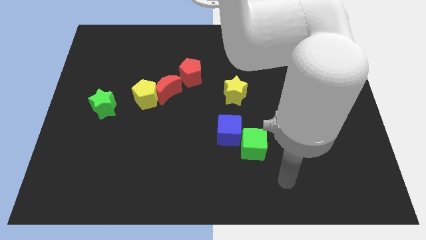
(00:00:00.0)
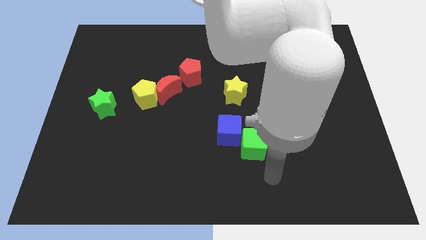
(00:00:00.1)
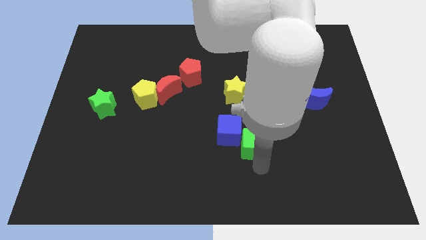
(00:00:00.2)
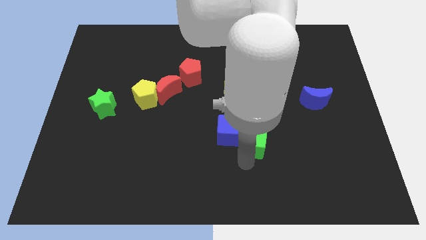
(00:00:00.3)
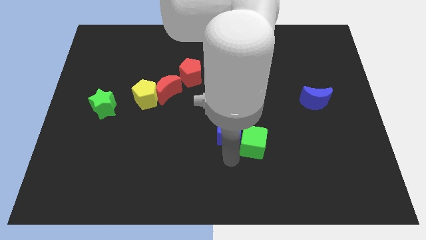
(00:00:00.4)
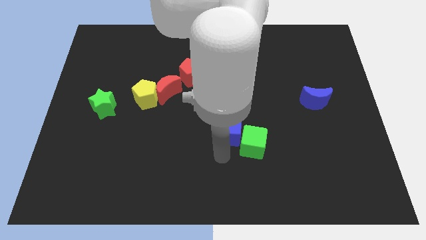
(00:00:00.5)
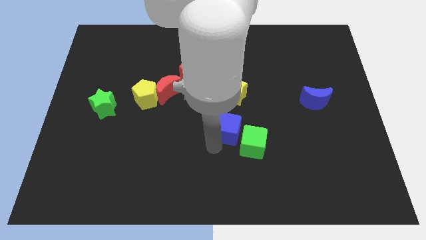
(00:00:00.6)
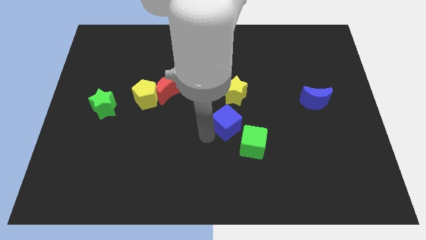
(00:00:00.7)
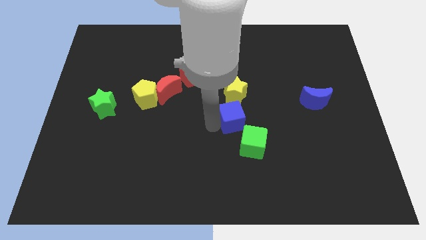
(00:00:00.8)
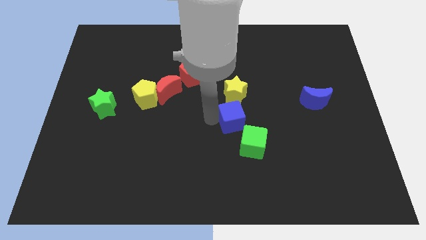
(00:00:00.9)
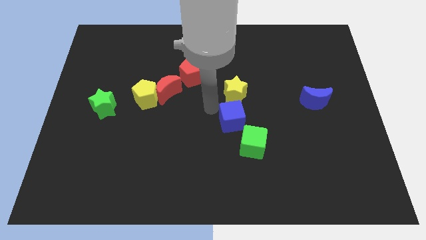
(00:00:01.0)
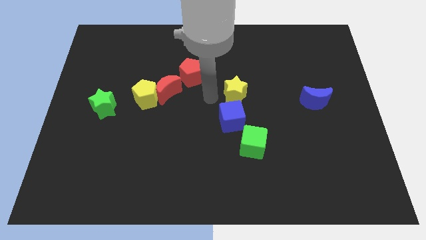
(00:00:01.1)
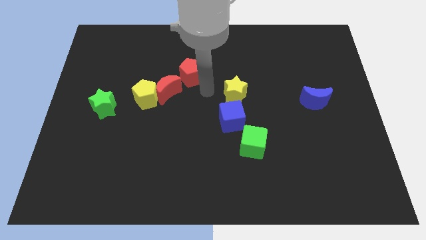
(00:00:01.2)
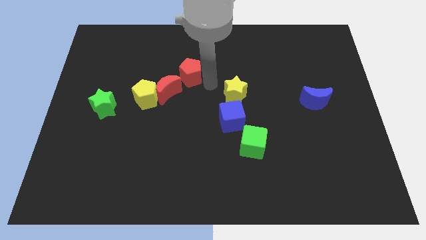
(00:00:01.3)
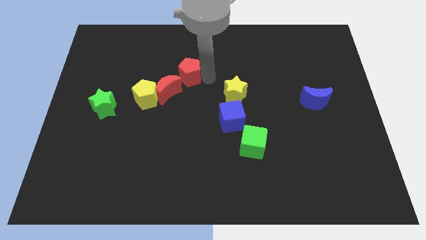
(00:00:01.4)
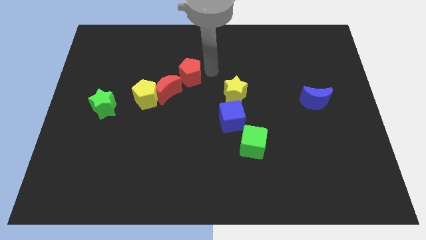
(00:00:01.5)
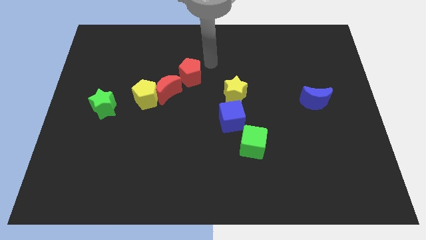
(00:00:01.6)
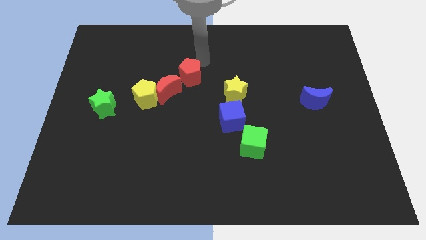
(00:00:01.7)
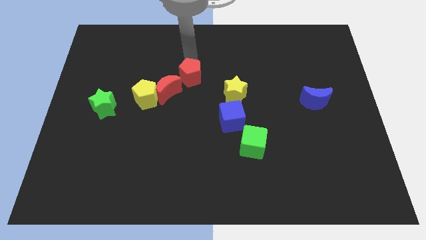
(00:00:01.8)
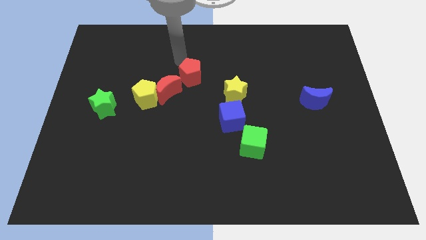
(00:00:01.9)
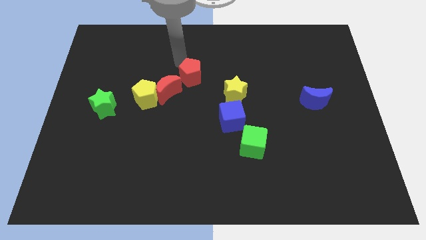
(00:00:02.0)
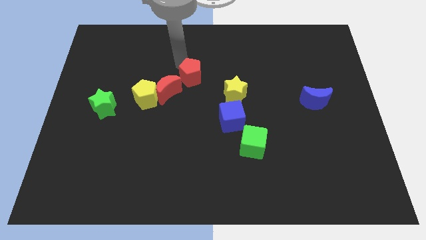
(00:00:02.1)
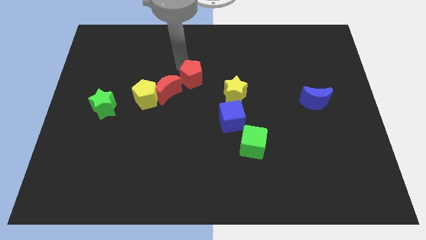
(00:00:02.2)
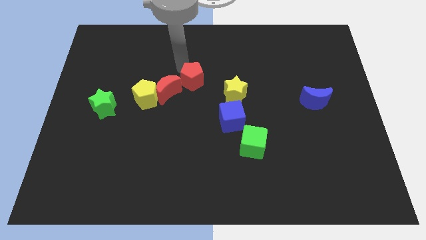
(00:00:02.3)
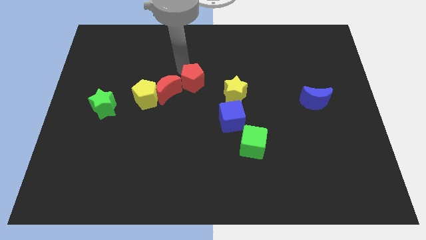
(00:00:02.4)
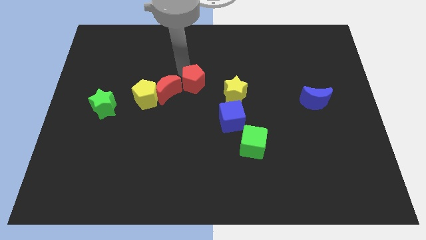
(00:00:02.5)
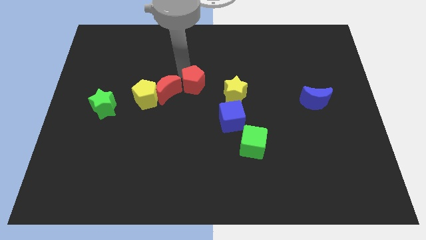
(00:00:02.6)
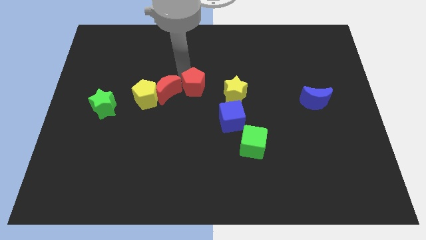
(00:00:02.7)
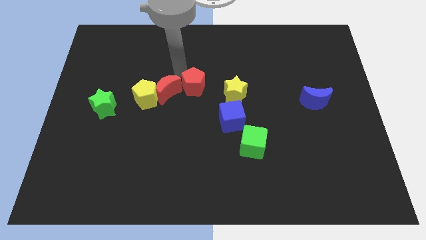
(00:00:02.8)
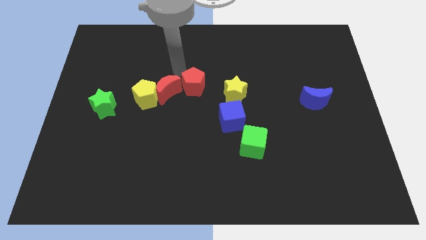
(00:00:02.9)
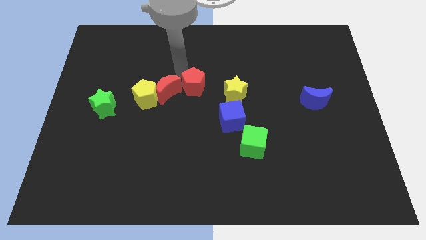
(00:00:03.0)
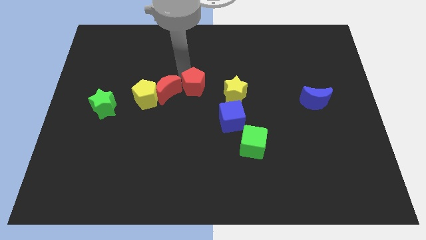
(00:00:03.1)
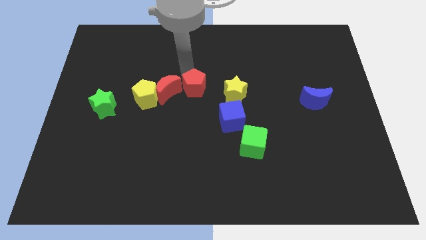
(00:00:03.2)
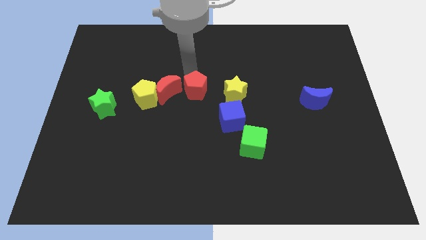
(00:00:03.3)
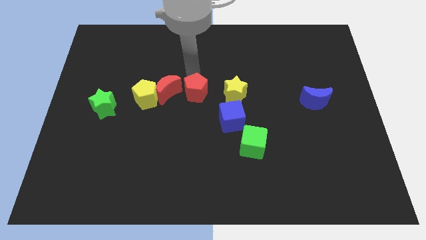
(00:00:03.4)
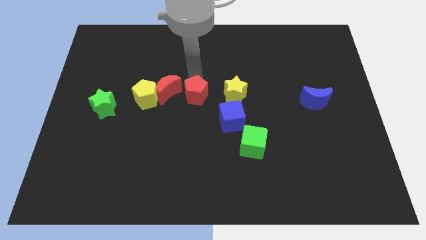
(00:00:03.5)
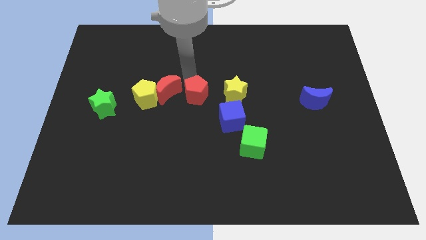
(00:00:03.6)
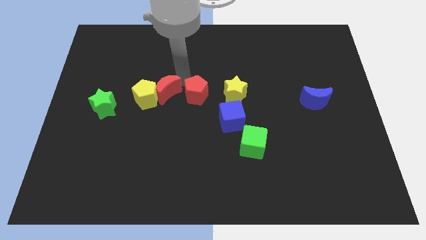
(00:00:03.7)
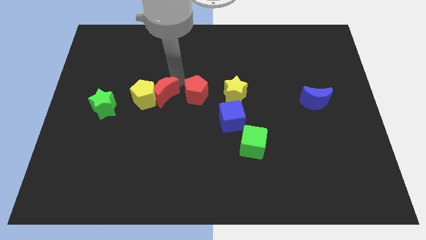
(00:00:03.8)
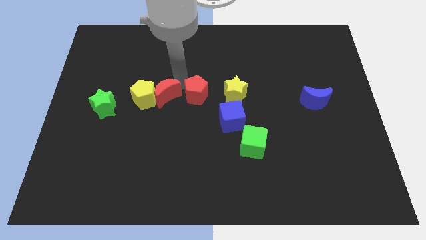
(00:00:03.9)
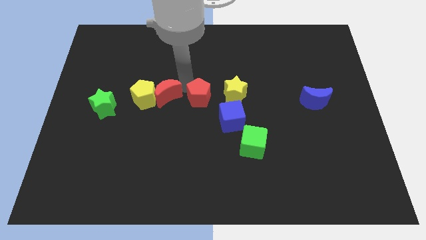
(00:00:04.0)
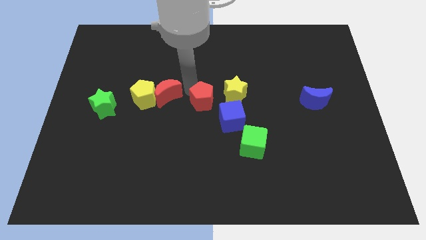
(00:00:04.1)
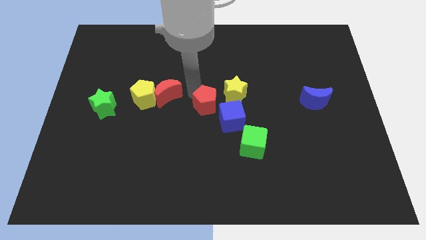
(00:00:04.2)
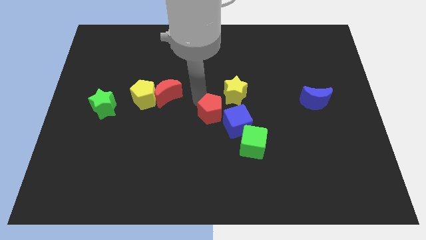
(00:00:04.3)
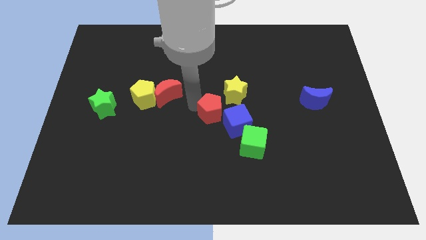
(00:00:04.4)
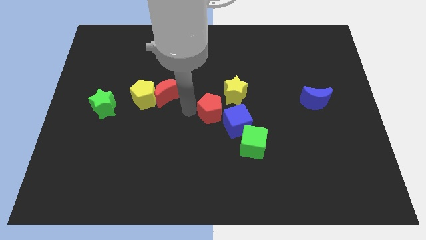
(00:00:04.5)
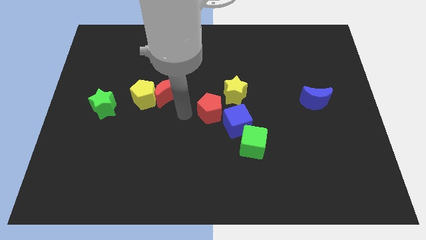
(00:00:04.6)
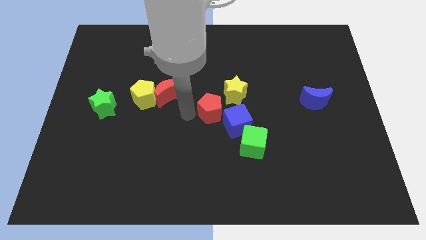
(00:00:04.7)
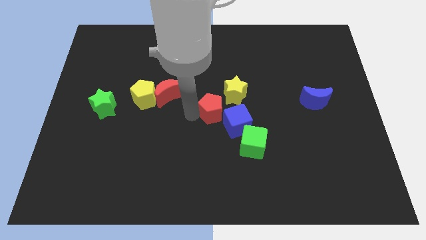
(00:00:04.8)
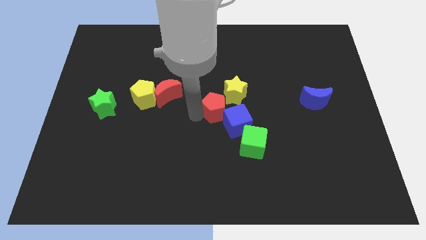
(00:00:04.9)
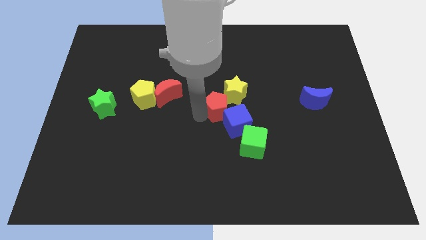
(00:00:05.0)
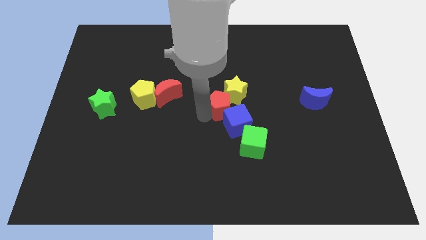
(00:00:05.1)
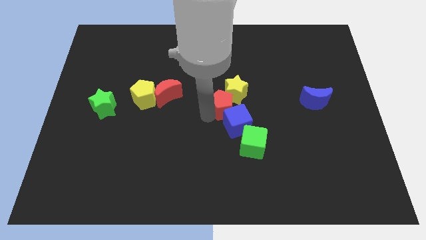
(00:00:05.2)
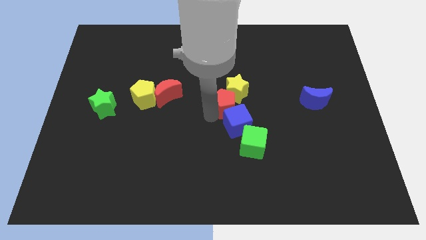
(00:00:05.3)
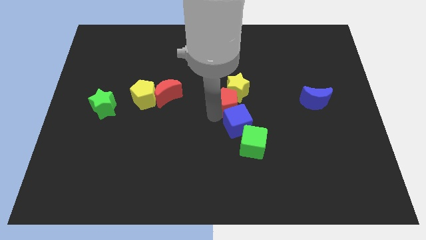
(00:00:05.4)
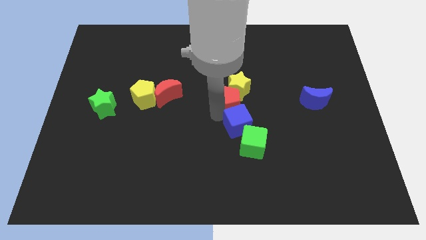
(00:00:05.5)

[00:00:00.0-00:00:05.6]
push the red pentagon to the top side of the green cube
